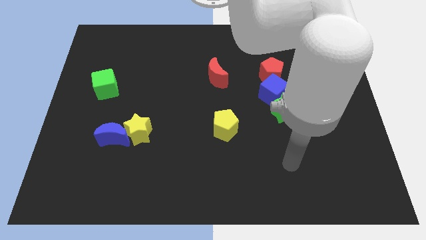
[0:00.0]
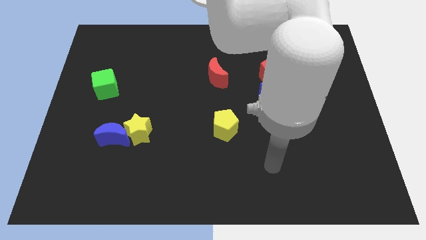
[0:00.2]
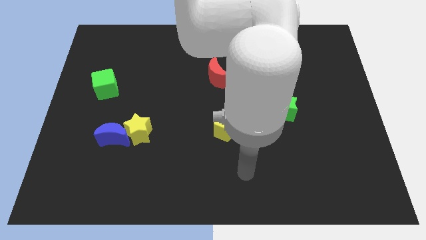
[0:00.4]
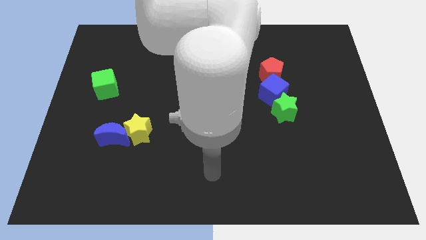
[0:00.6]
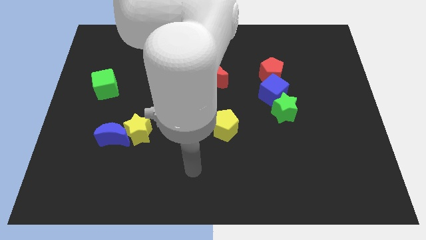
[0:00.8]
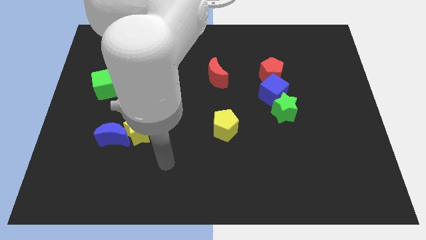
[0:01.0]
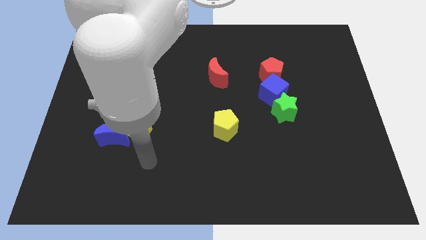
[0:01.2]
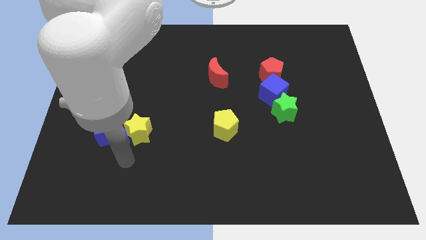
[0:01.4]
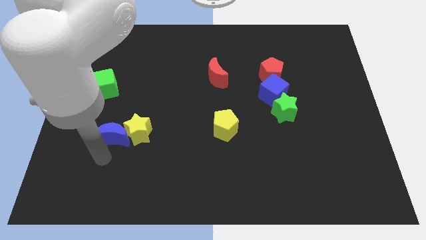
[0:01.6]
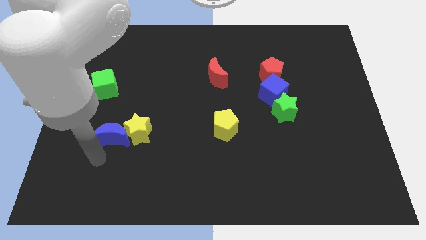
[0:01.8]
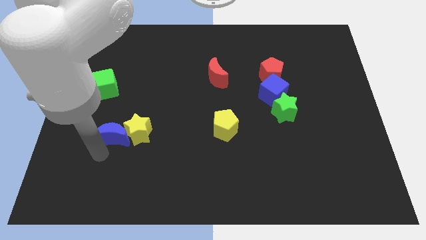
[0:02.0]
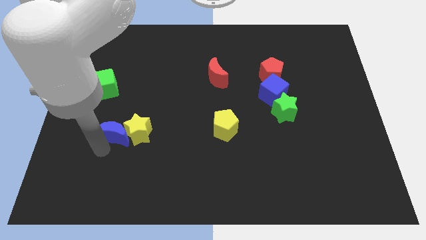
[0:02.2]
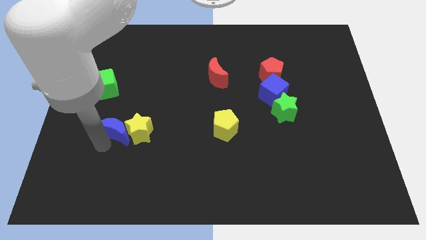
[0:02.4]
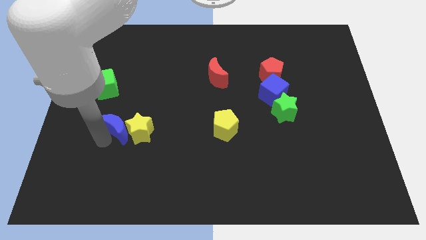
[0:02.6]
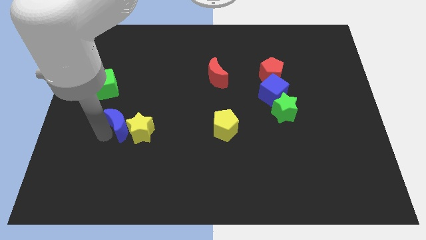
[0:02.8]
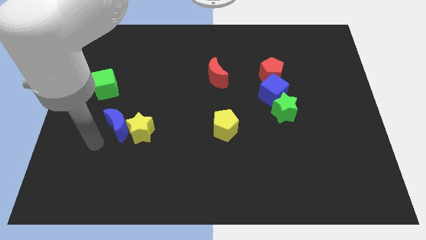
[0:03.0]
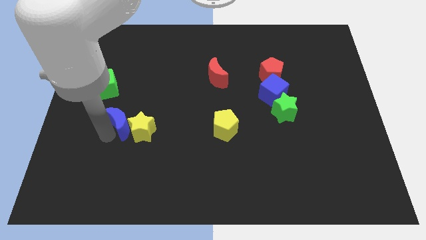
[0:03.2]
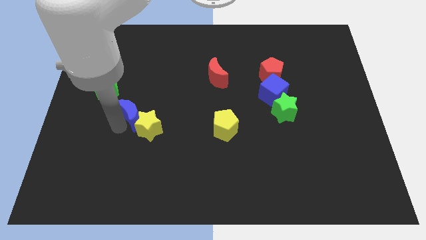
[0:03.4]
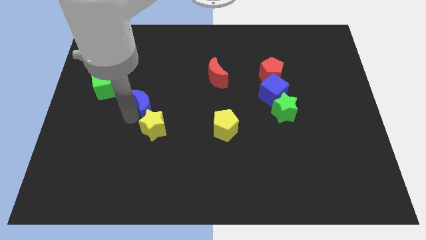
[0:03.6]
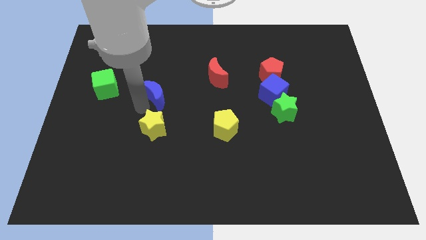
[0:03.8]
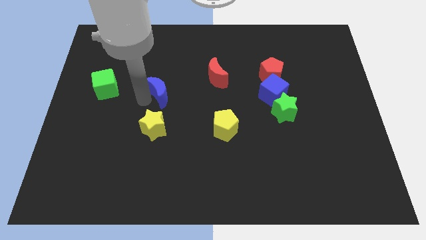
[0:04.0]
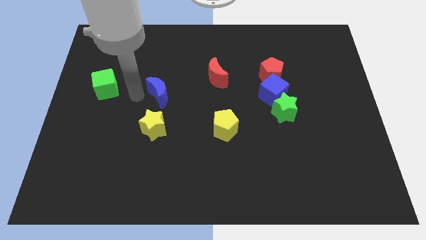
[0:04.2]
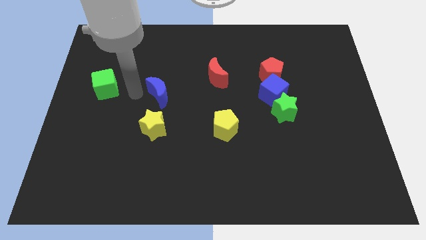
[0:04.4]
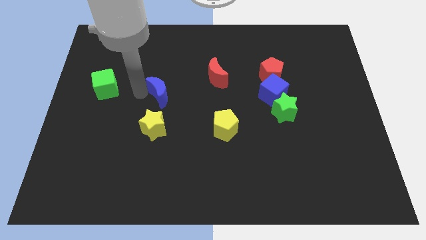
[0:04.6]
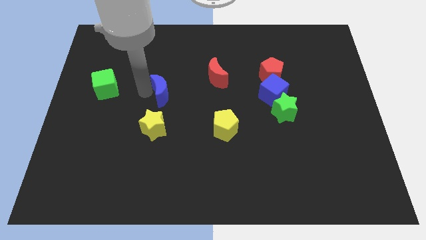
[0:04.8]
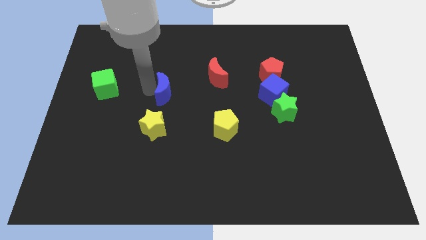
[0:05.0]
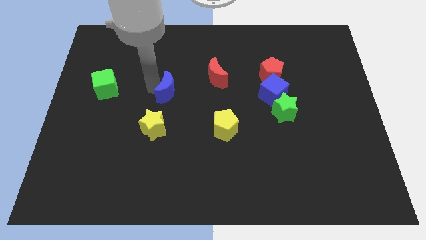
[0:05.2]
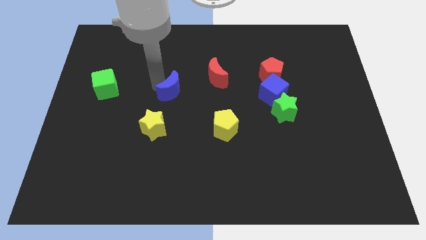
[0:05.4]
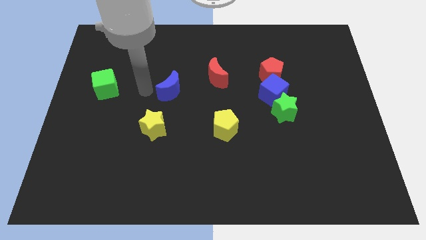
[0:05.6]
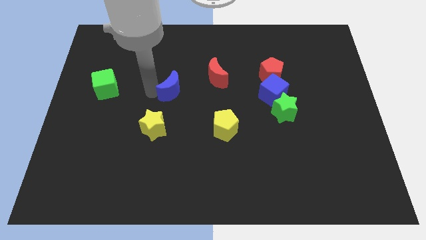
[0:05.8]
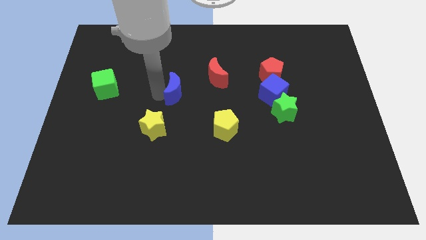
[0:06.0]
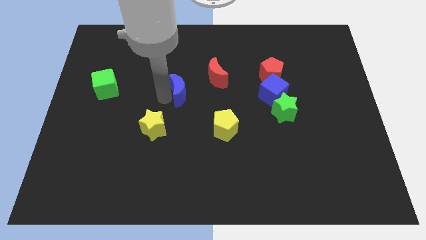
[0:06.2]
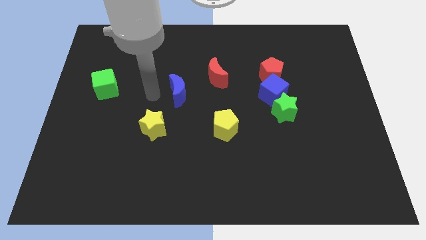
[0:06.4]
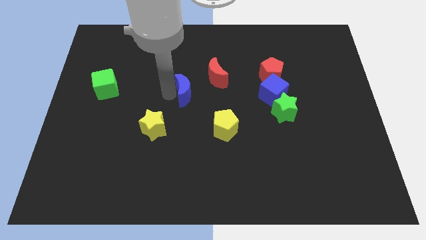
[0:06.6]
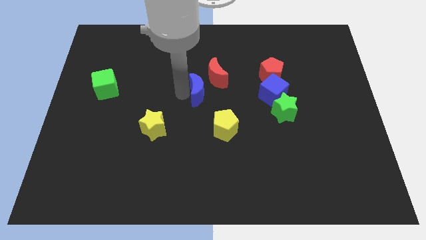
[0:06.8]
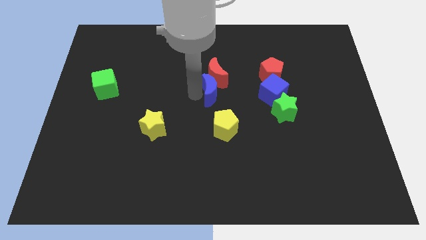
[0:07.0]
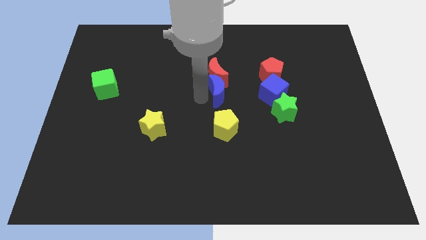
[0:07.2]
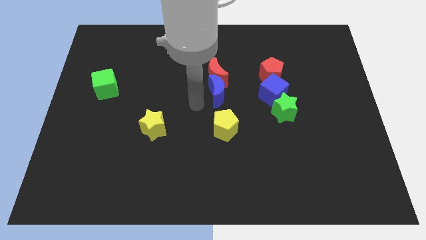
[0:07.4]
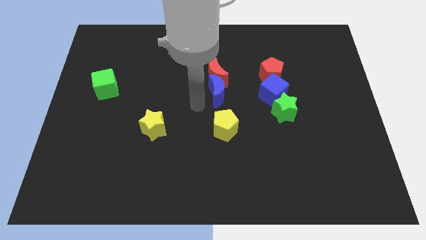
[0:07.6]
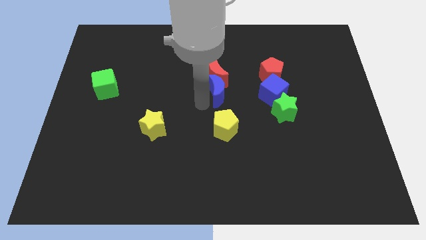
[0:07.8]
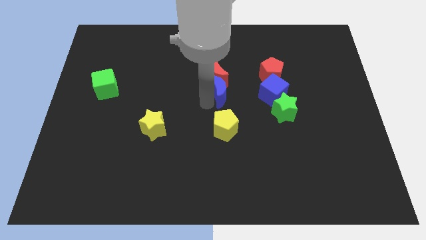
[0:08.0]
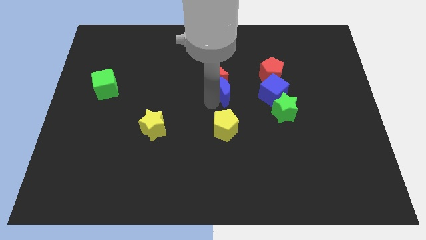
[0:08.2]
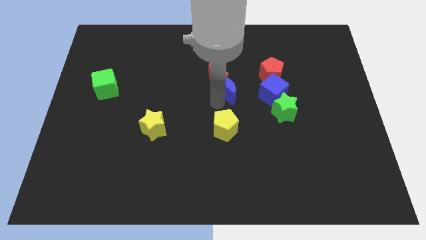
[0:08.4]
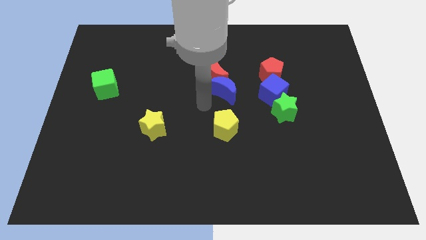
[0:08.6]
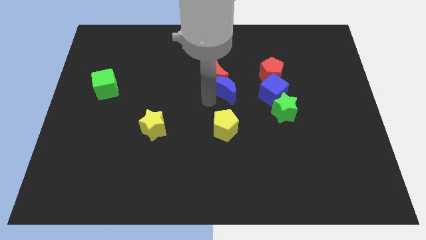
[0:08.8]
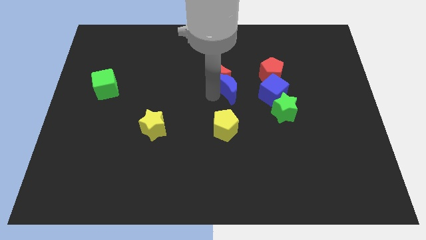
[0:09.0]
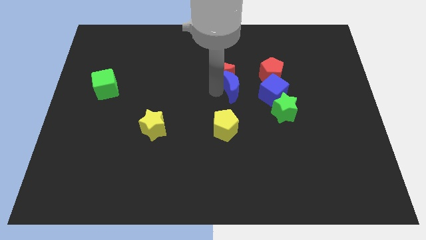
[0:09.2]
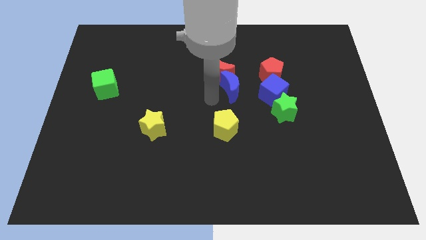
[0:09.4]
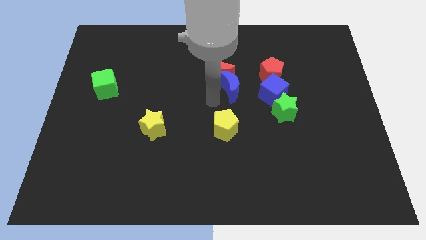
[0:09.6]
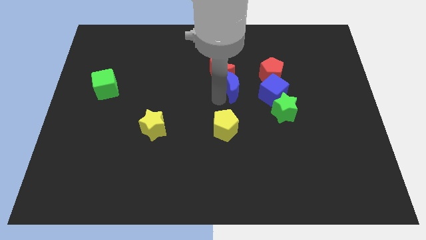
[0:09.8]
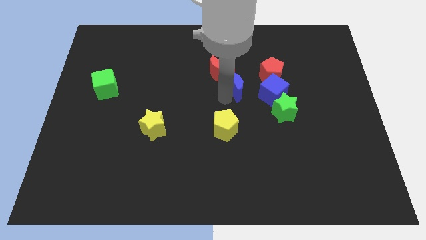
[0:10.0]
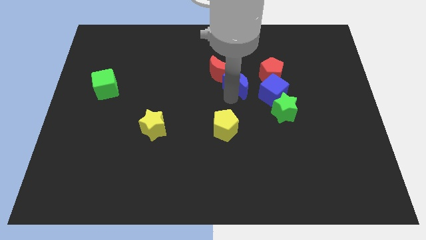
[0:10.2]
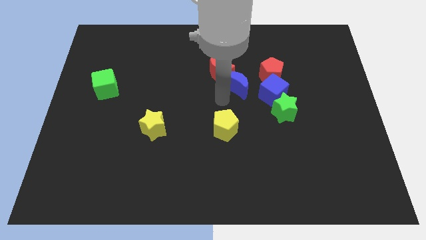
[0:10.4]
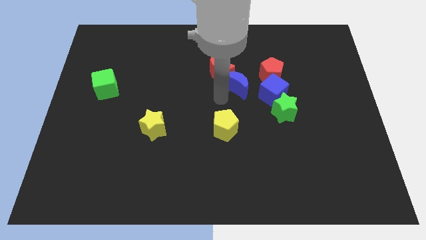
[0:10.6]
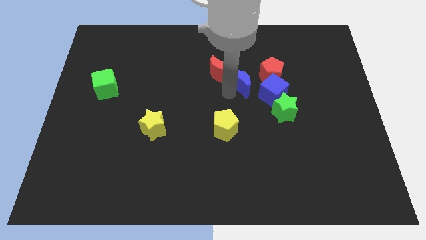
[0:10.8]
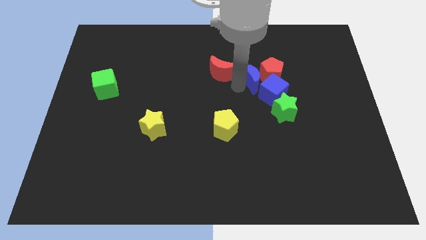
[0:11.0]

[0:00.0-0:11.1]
put the blue moon close to the red pentagon

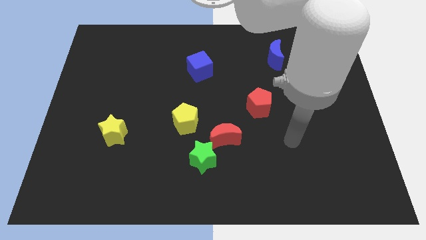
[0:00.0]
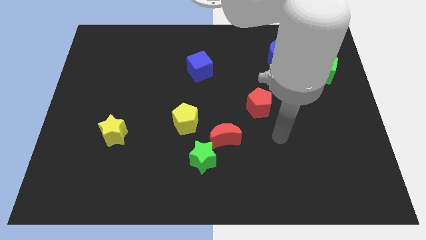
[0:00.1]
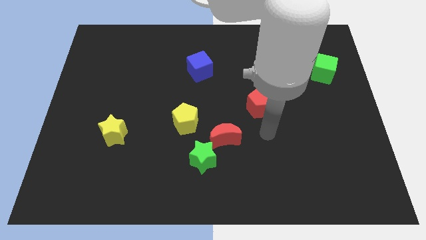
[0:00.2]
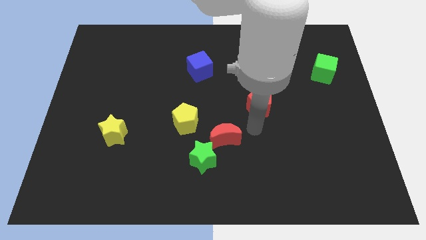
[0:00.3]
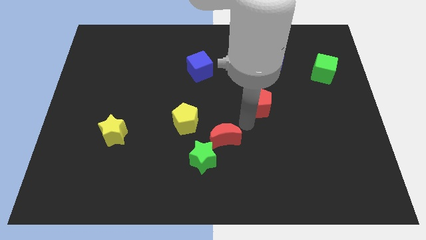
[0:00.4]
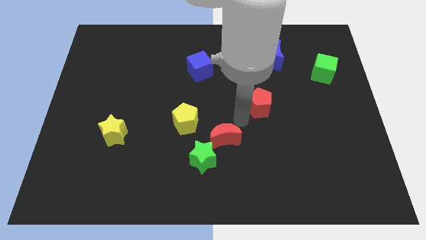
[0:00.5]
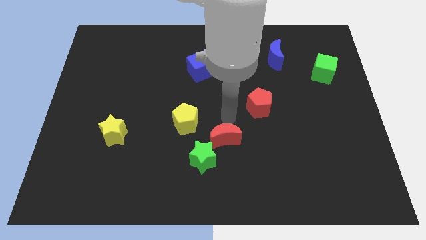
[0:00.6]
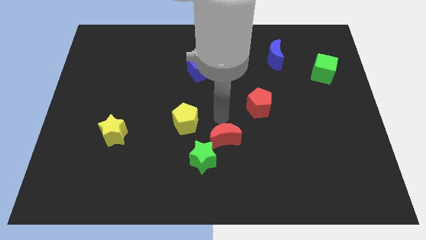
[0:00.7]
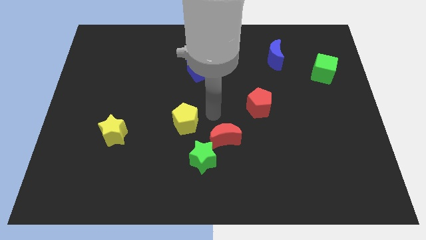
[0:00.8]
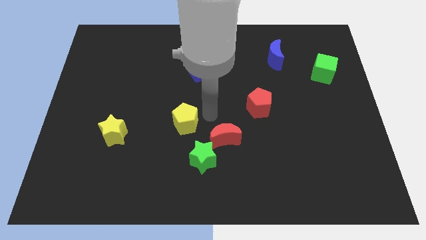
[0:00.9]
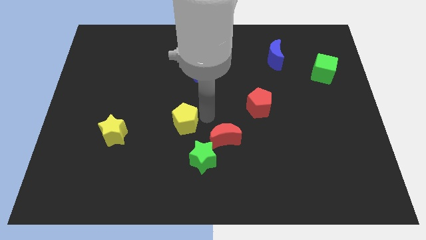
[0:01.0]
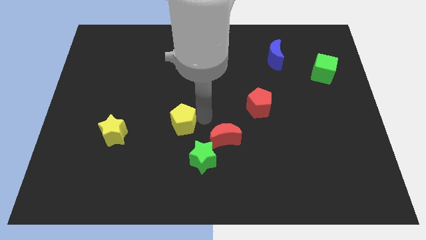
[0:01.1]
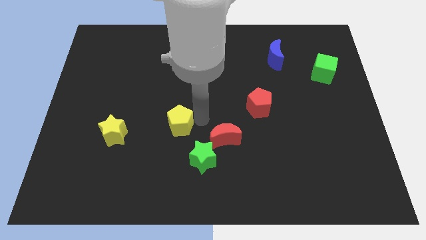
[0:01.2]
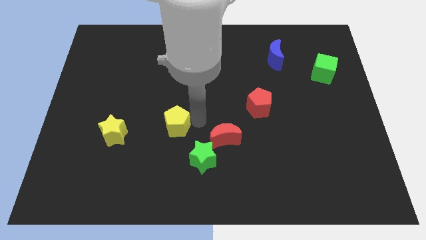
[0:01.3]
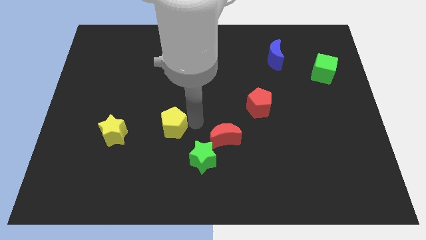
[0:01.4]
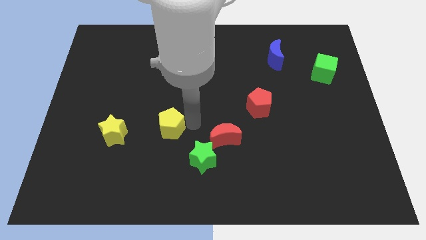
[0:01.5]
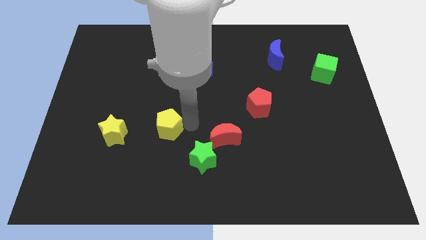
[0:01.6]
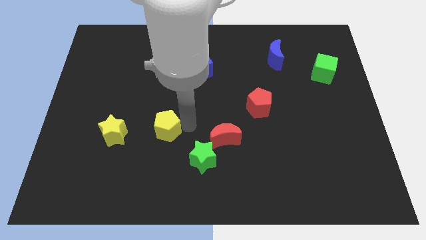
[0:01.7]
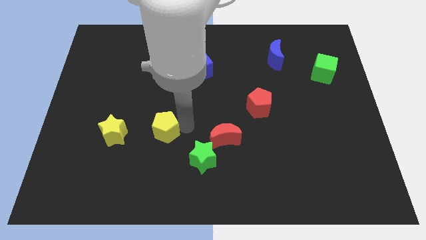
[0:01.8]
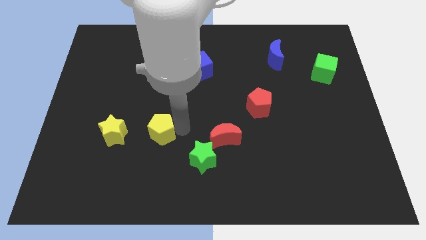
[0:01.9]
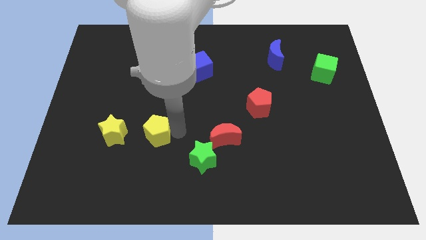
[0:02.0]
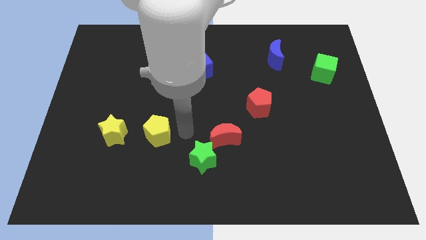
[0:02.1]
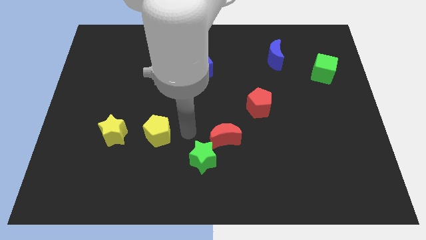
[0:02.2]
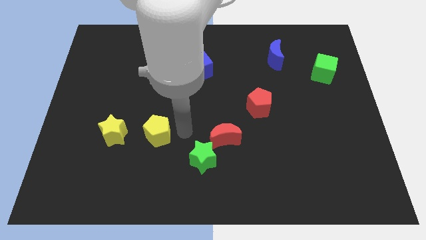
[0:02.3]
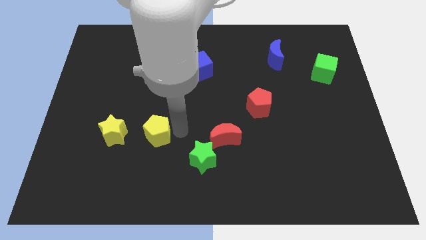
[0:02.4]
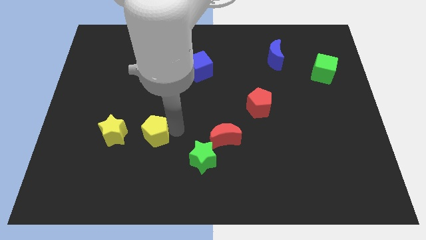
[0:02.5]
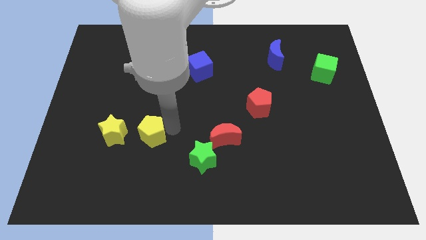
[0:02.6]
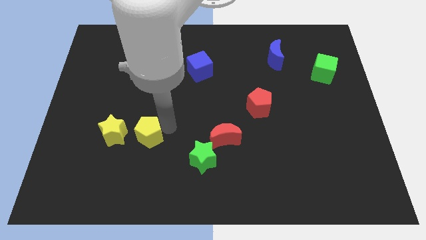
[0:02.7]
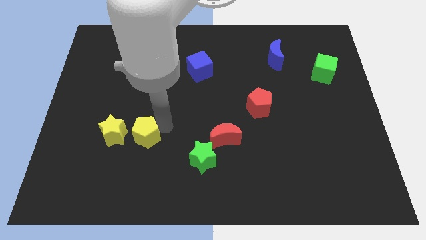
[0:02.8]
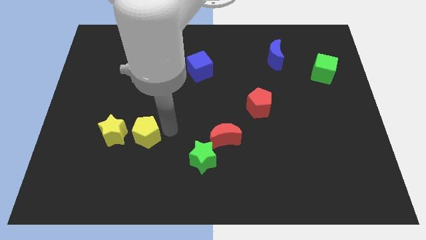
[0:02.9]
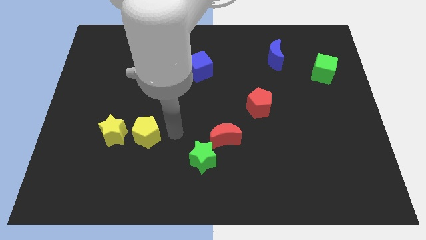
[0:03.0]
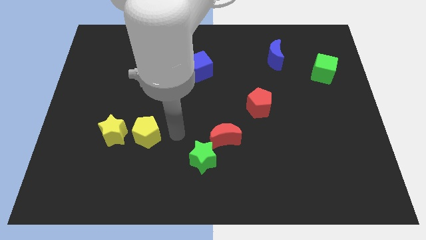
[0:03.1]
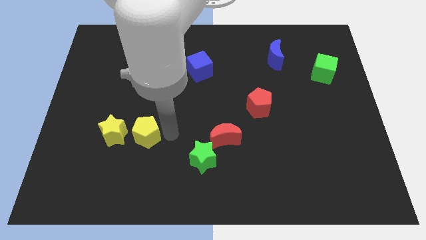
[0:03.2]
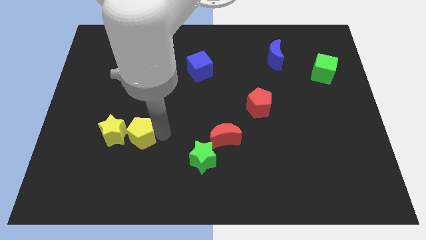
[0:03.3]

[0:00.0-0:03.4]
push the yellow pentagon towards the yellow star
